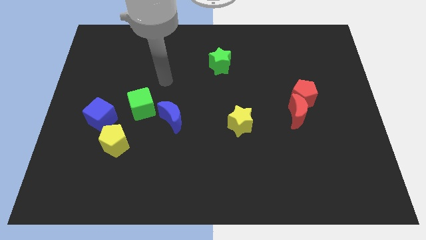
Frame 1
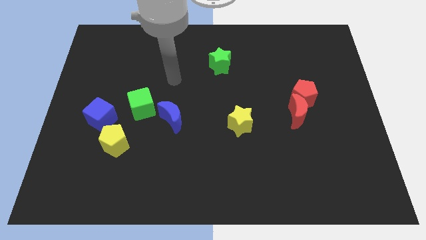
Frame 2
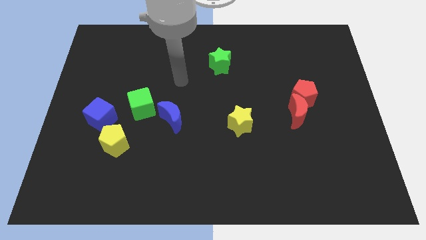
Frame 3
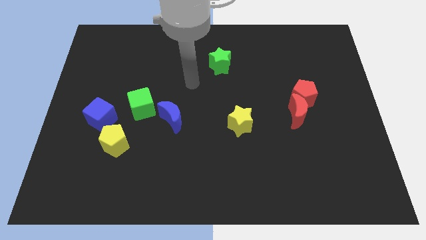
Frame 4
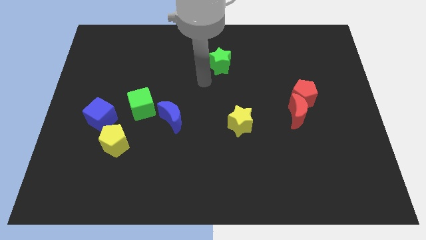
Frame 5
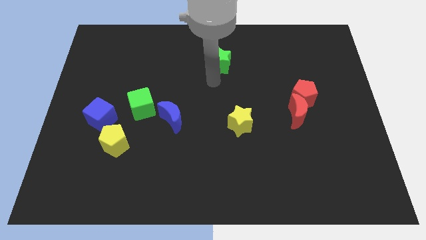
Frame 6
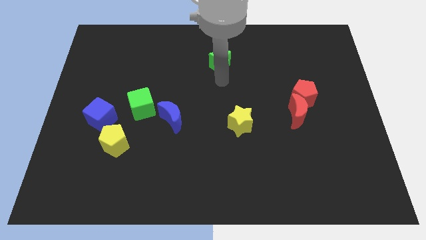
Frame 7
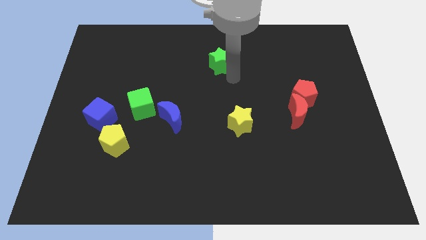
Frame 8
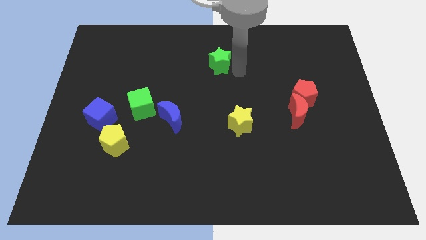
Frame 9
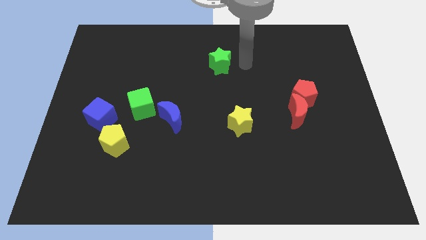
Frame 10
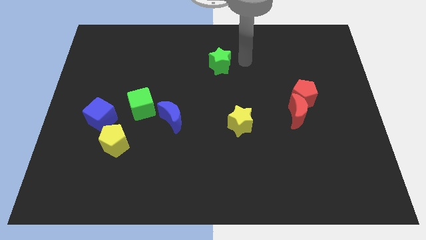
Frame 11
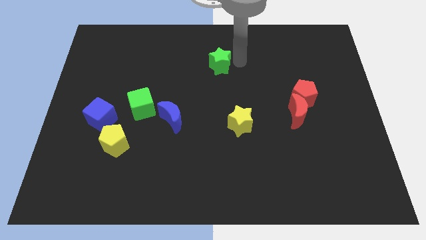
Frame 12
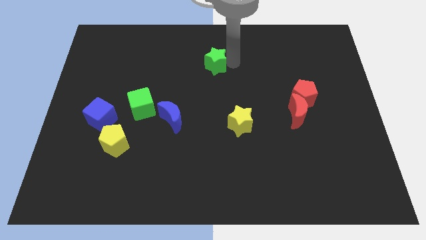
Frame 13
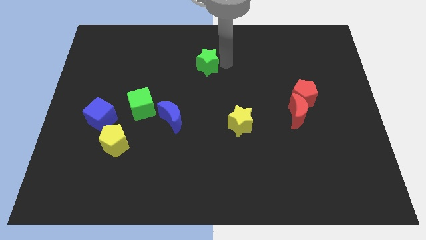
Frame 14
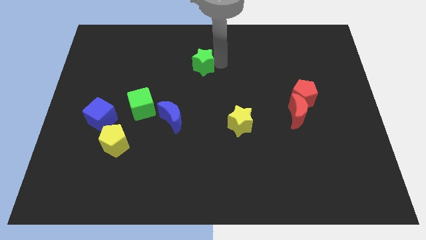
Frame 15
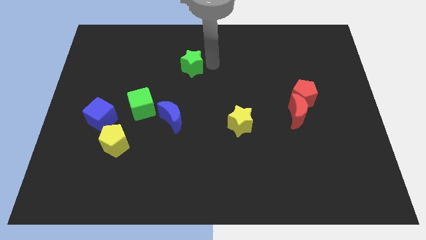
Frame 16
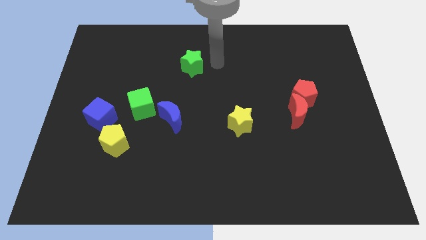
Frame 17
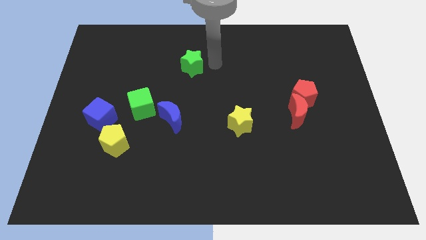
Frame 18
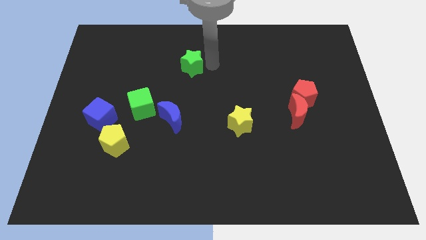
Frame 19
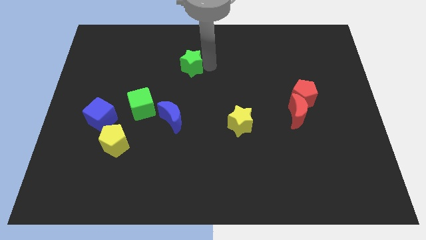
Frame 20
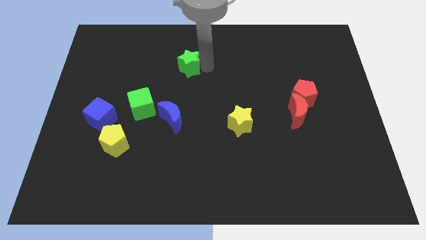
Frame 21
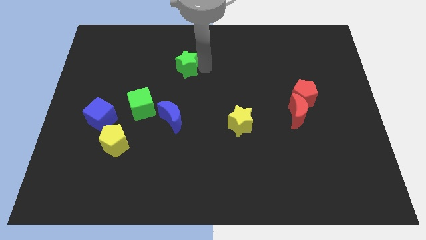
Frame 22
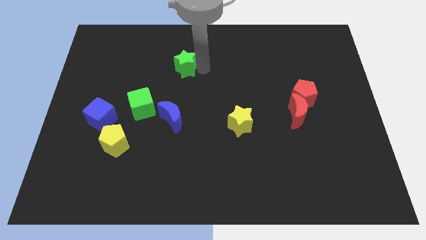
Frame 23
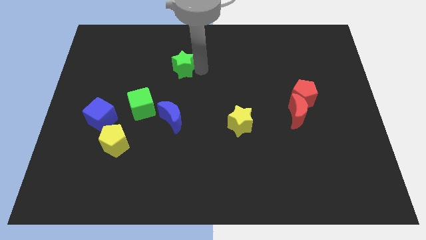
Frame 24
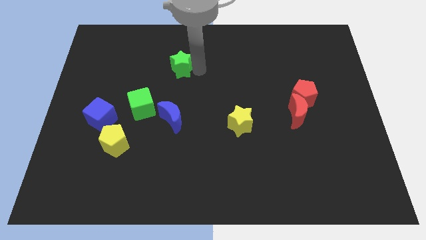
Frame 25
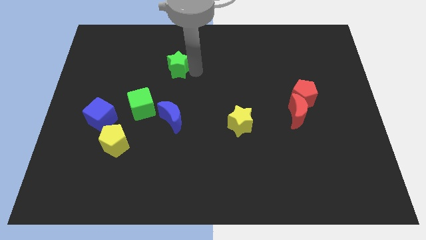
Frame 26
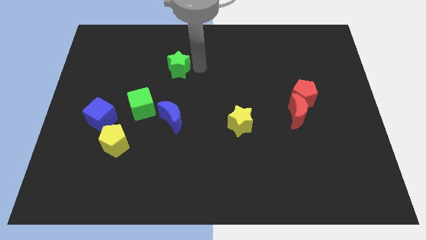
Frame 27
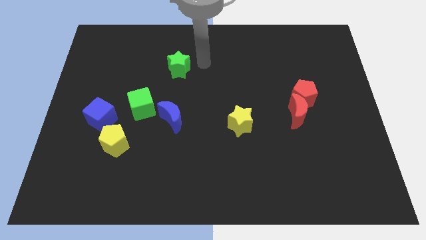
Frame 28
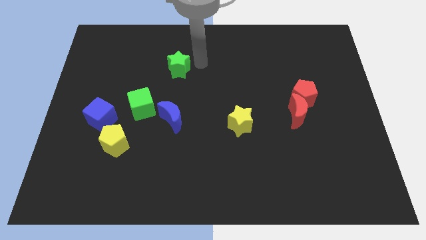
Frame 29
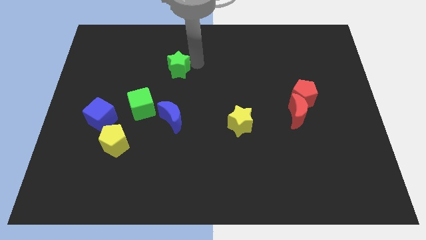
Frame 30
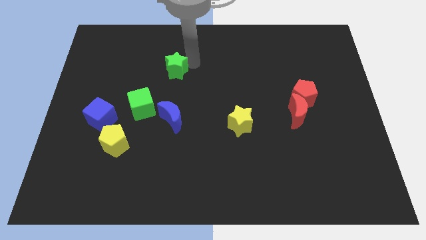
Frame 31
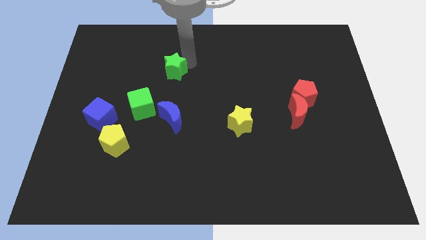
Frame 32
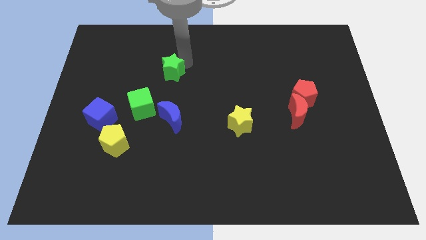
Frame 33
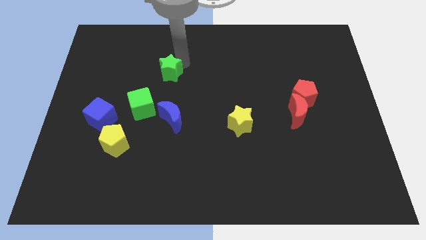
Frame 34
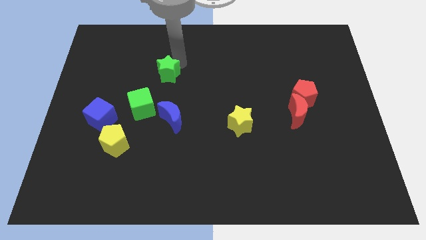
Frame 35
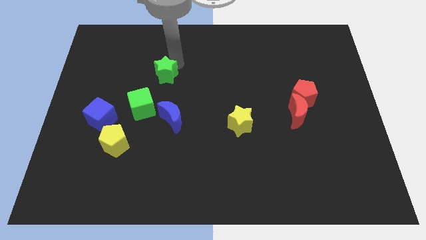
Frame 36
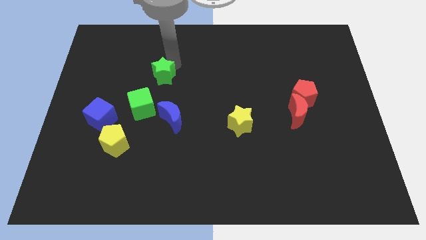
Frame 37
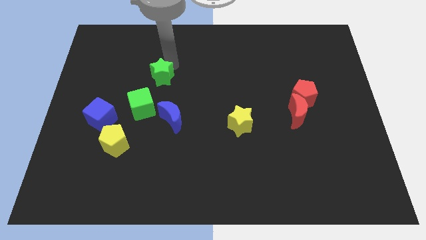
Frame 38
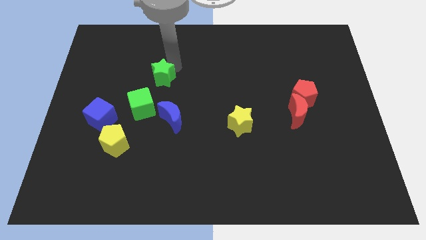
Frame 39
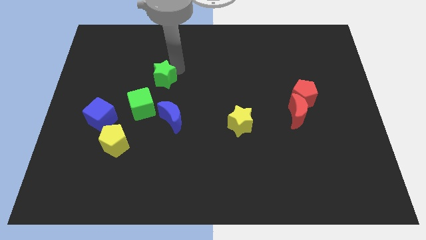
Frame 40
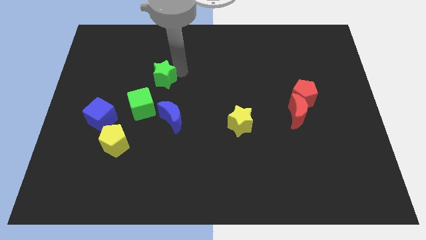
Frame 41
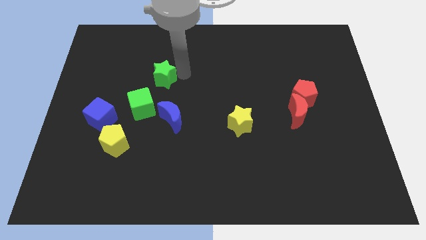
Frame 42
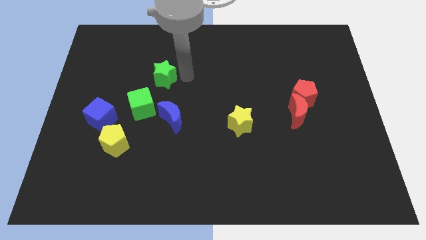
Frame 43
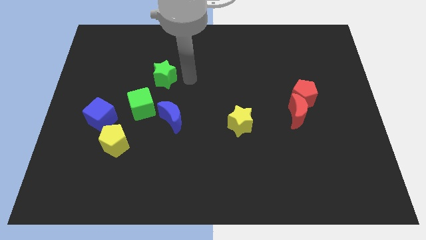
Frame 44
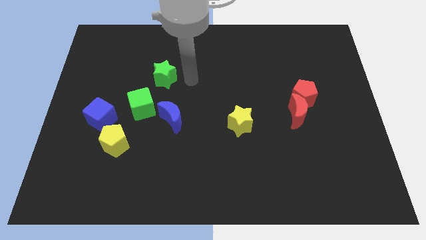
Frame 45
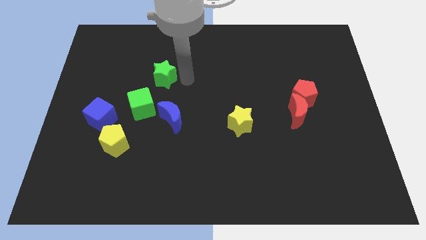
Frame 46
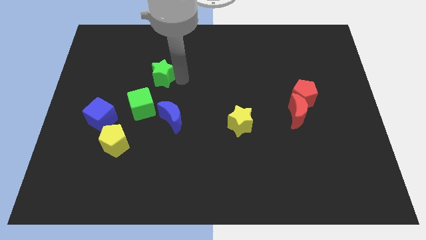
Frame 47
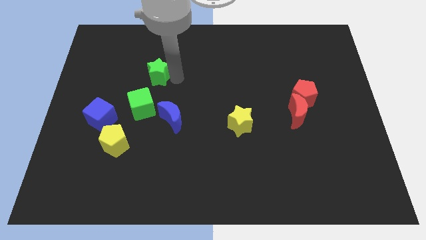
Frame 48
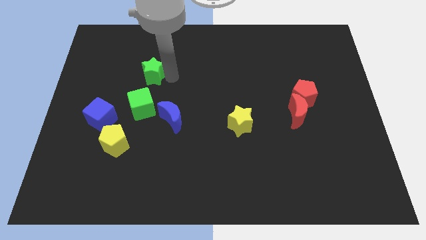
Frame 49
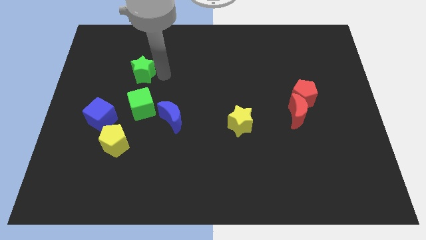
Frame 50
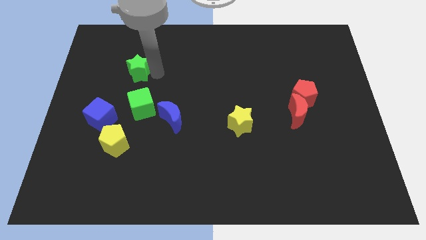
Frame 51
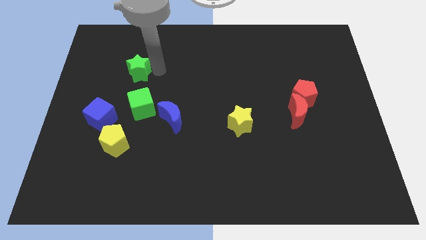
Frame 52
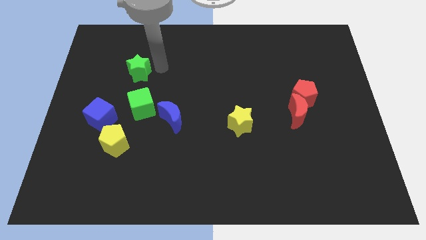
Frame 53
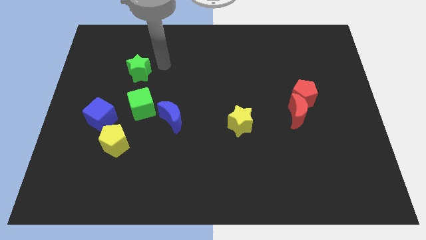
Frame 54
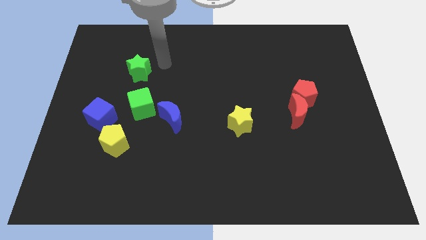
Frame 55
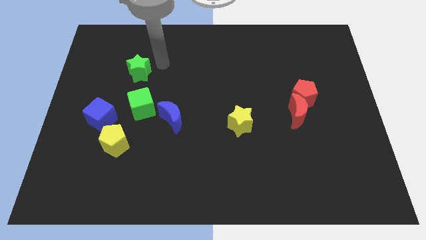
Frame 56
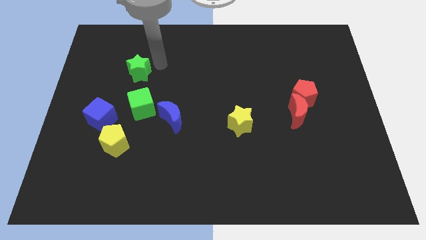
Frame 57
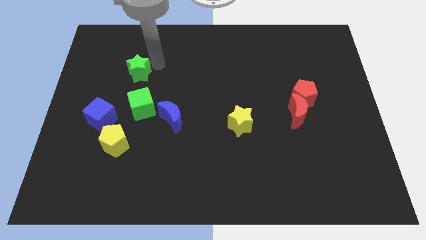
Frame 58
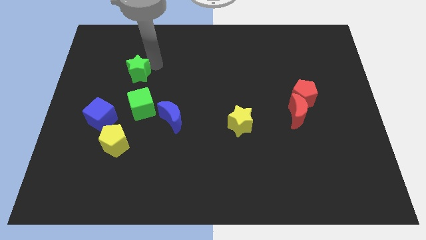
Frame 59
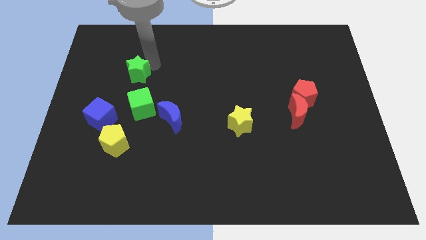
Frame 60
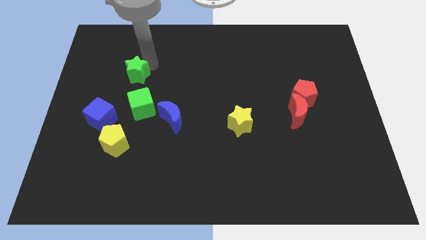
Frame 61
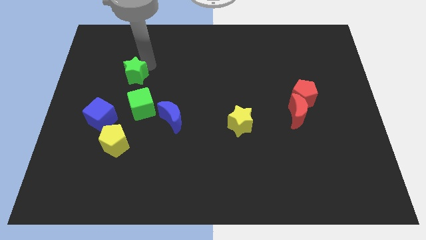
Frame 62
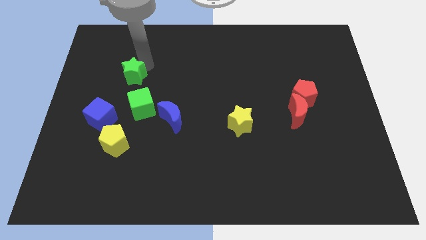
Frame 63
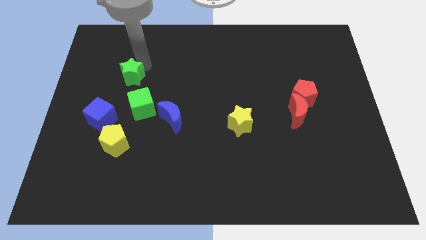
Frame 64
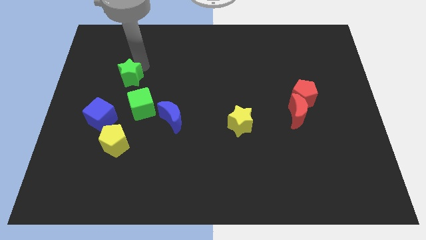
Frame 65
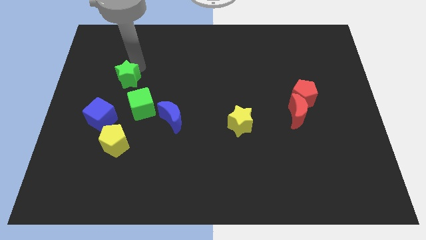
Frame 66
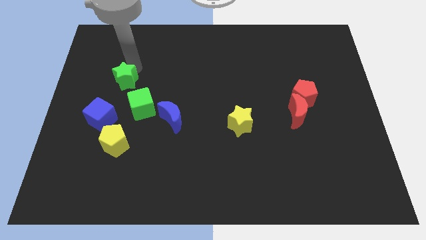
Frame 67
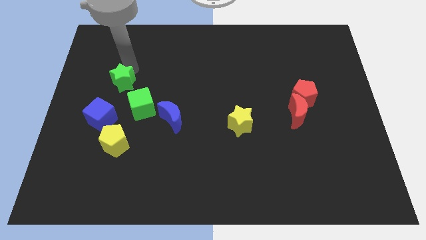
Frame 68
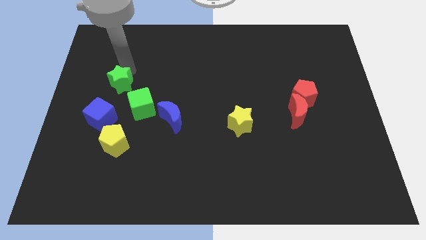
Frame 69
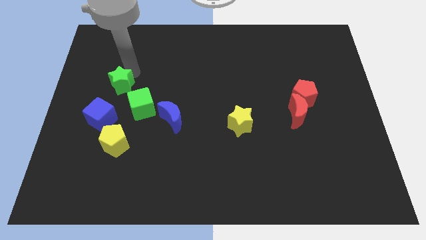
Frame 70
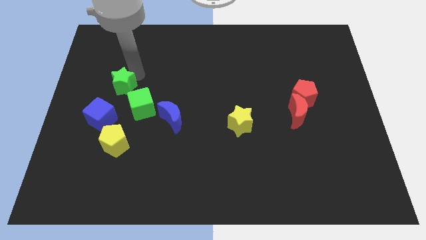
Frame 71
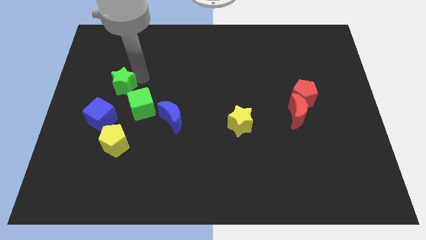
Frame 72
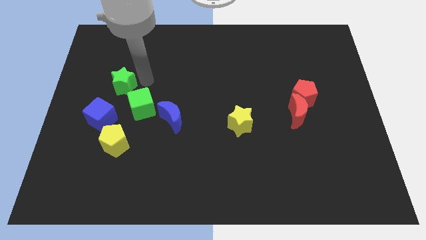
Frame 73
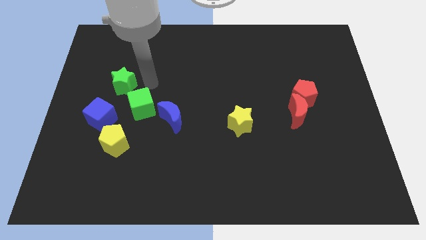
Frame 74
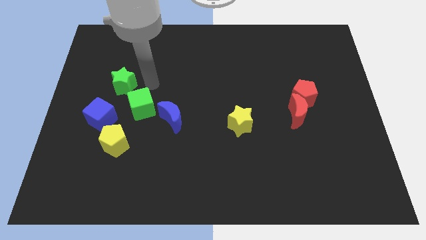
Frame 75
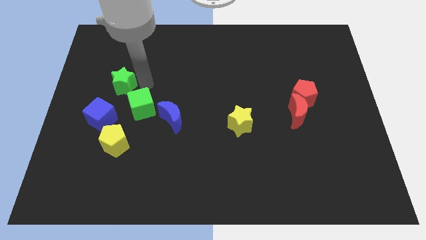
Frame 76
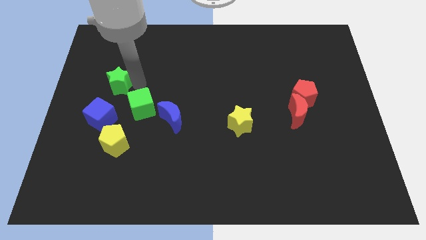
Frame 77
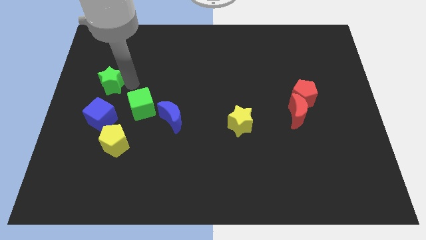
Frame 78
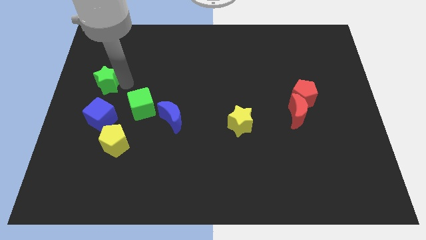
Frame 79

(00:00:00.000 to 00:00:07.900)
put the green star to the left side
